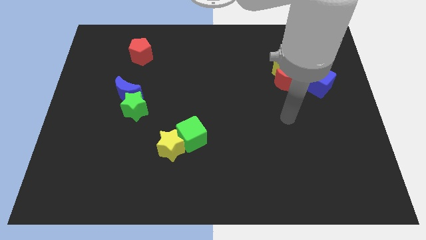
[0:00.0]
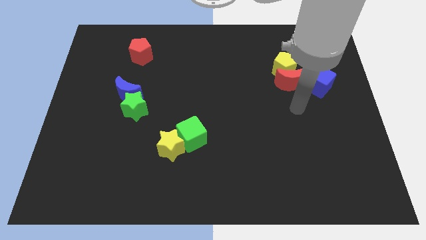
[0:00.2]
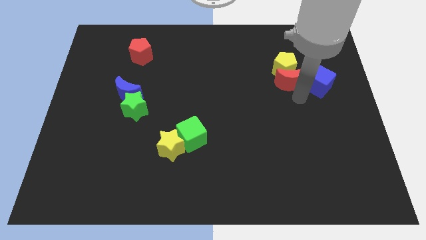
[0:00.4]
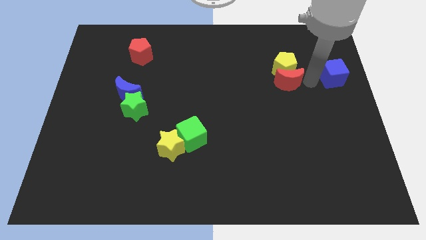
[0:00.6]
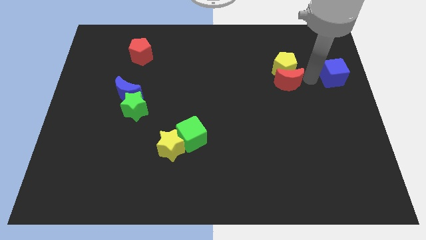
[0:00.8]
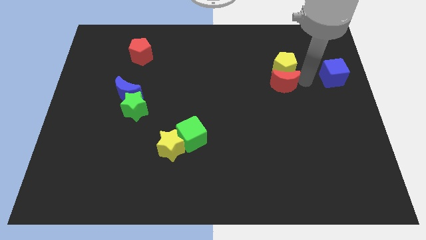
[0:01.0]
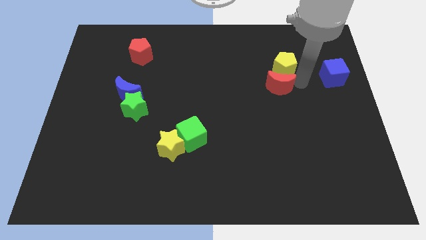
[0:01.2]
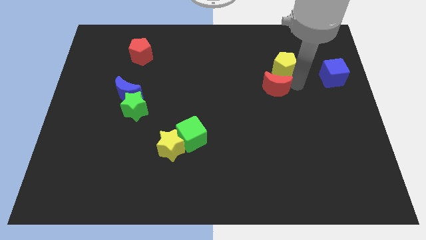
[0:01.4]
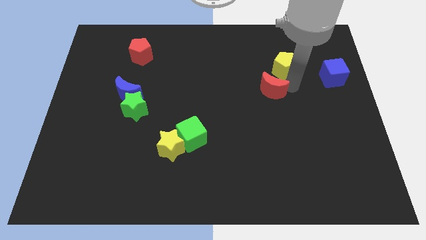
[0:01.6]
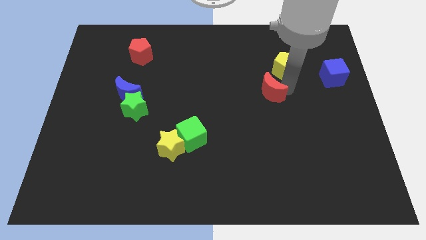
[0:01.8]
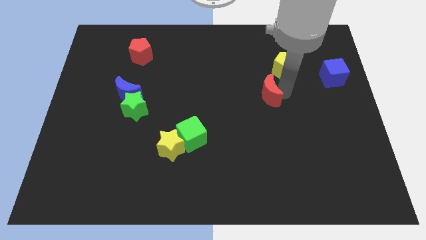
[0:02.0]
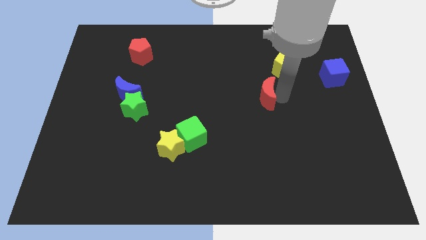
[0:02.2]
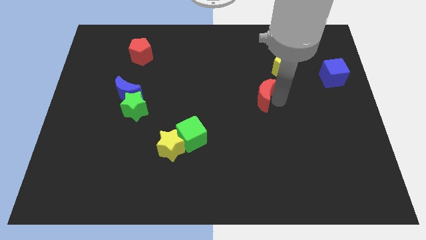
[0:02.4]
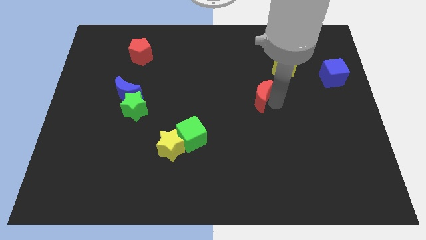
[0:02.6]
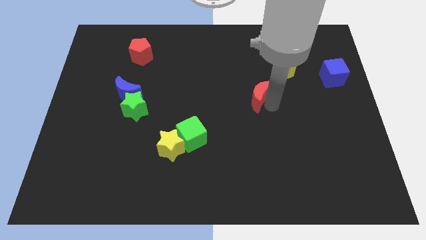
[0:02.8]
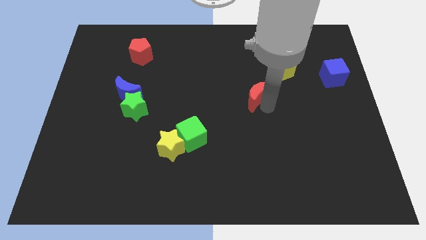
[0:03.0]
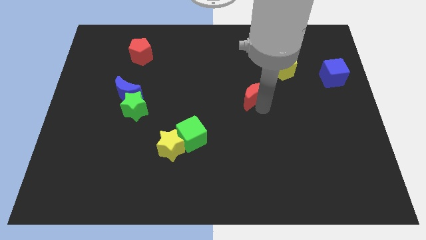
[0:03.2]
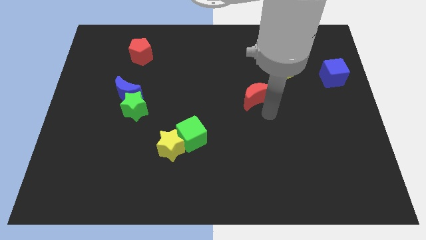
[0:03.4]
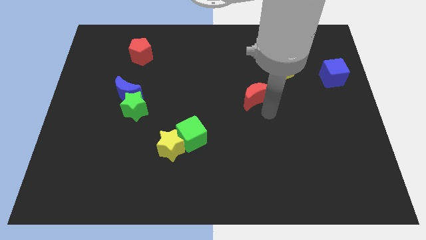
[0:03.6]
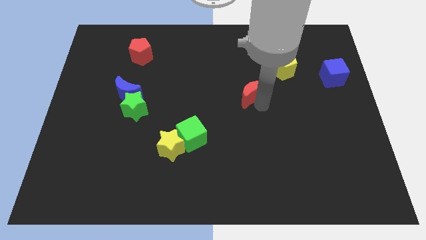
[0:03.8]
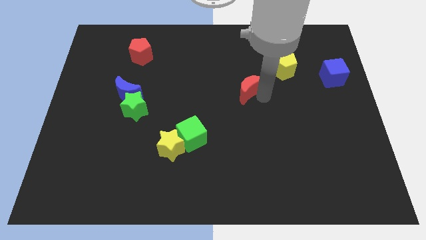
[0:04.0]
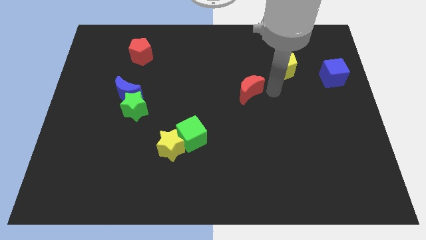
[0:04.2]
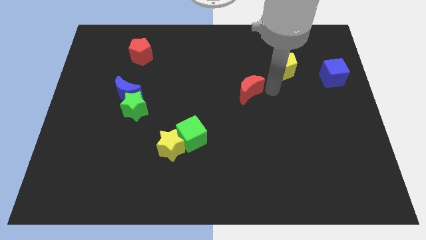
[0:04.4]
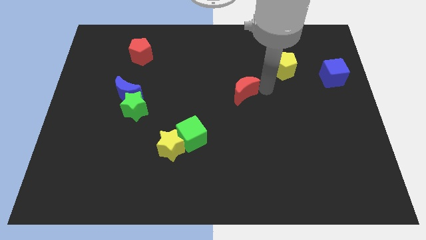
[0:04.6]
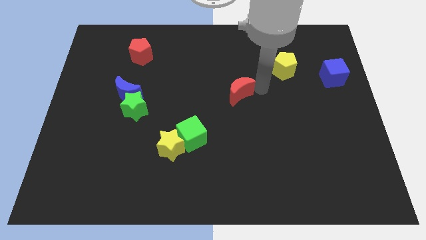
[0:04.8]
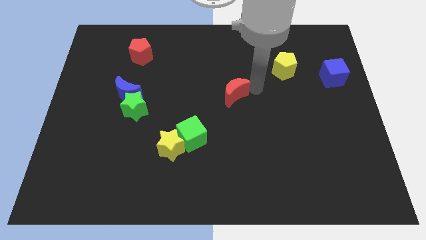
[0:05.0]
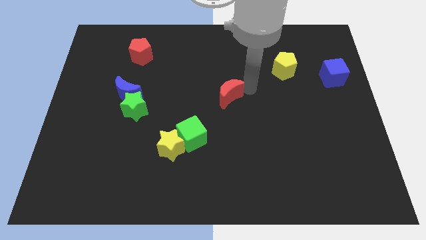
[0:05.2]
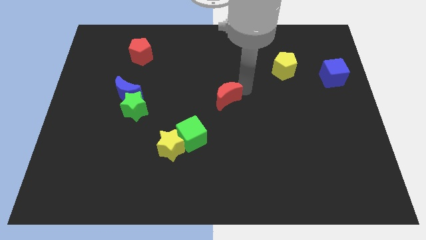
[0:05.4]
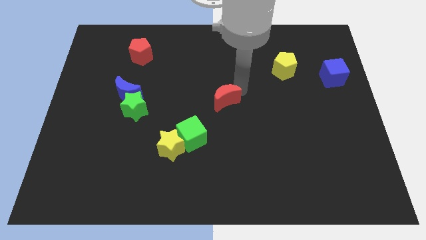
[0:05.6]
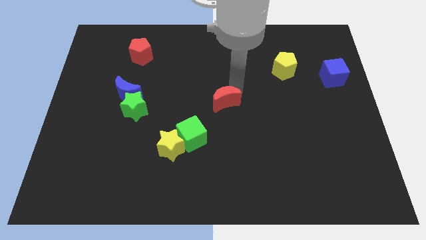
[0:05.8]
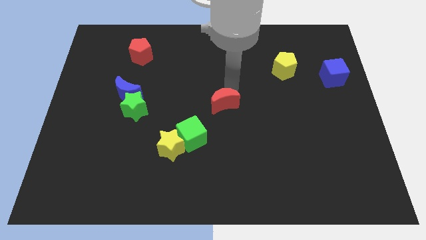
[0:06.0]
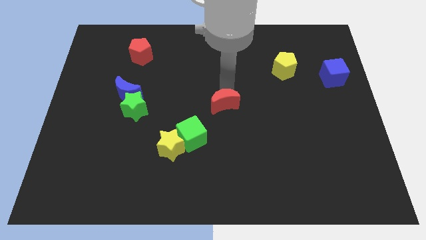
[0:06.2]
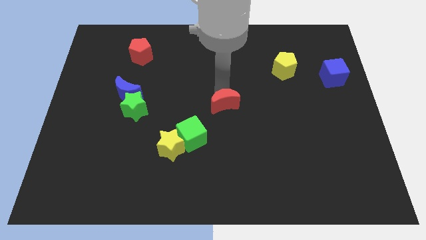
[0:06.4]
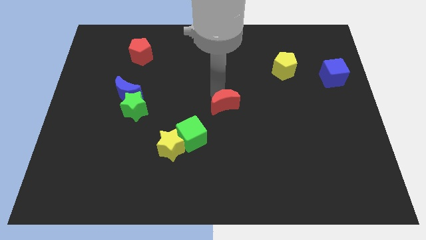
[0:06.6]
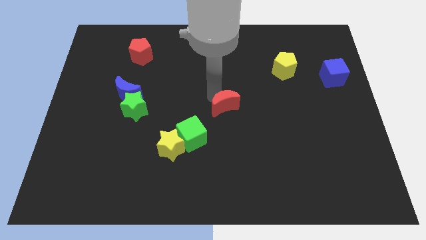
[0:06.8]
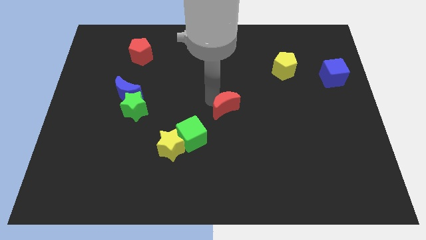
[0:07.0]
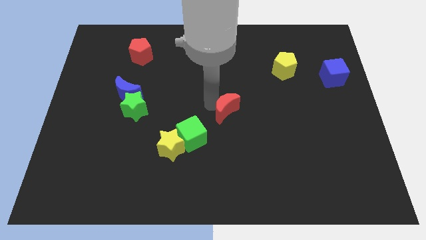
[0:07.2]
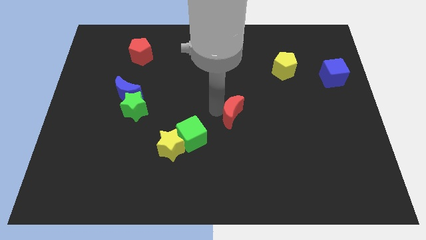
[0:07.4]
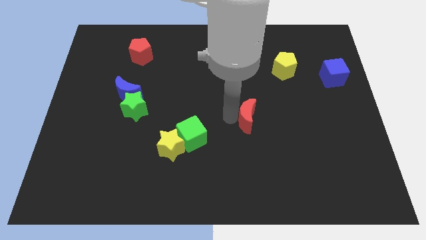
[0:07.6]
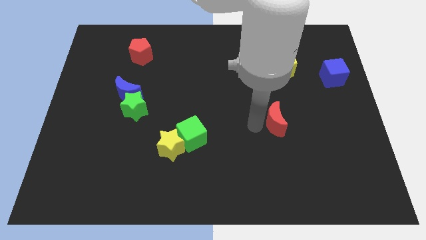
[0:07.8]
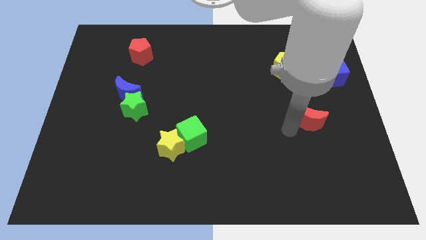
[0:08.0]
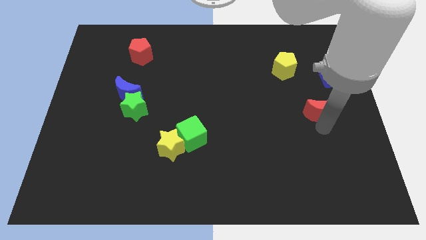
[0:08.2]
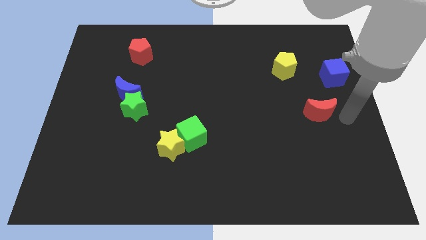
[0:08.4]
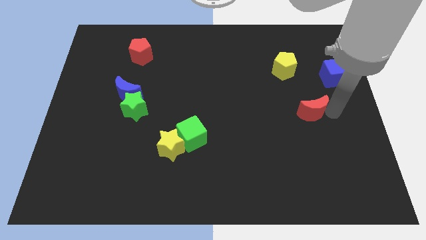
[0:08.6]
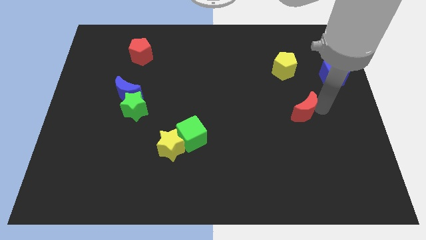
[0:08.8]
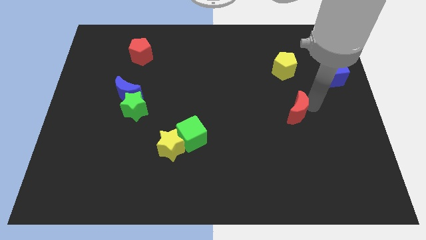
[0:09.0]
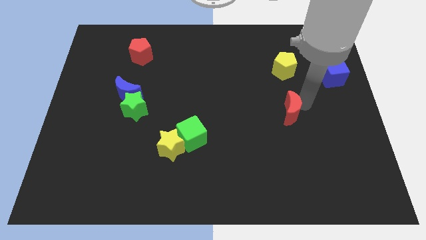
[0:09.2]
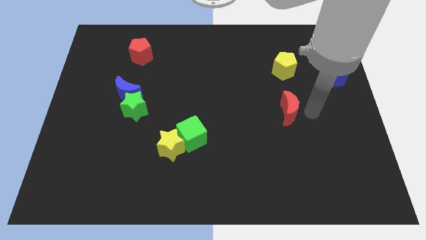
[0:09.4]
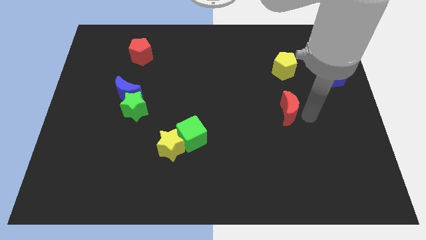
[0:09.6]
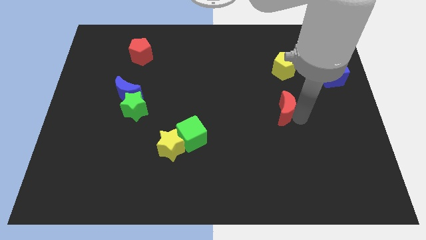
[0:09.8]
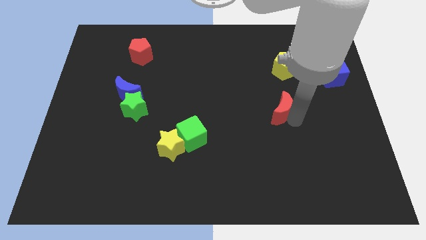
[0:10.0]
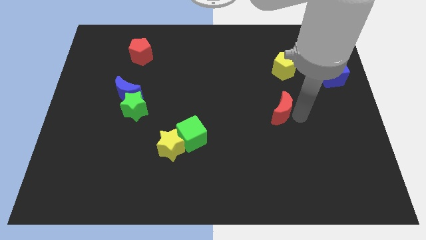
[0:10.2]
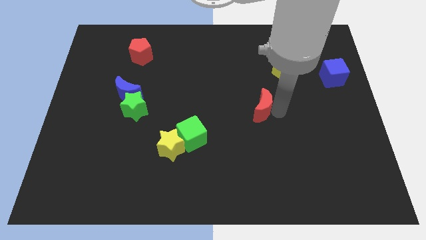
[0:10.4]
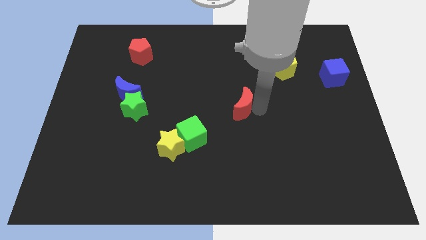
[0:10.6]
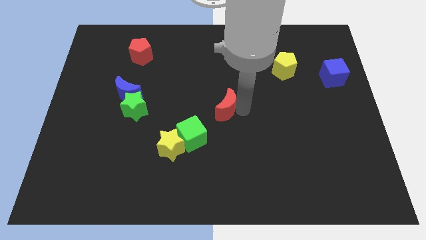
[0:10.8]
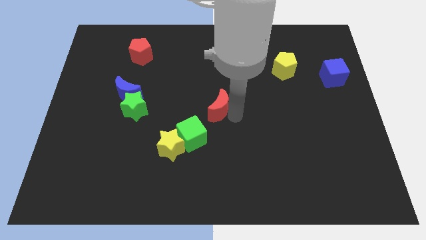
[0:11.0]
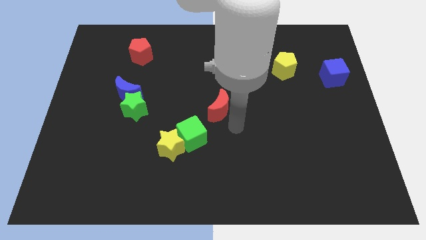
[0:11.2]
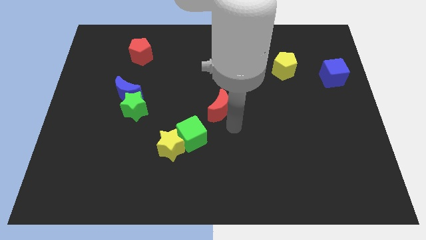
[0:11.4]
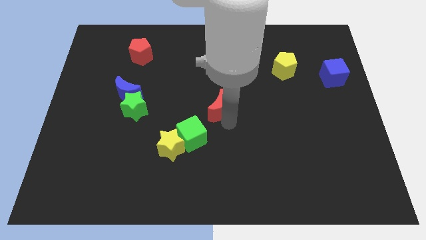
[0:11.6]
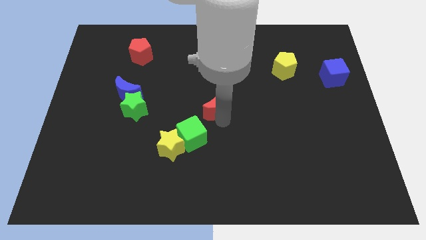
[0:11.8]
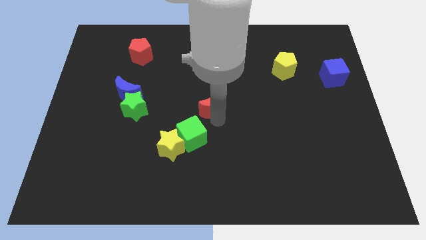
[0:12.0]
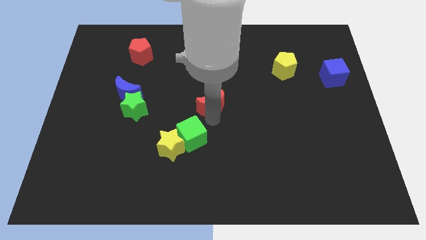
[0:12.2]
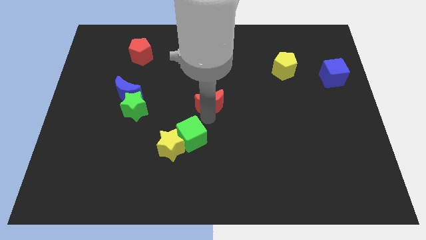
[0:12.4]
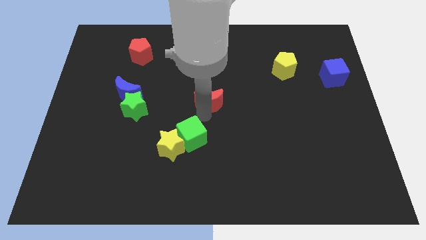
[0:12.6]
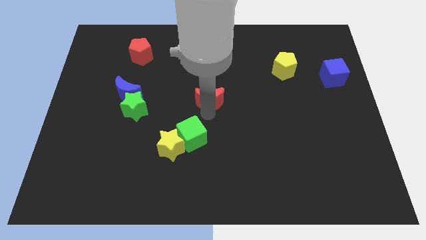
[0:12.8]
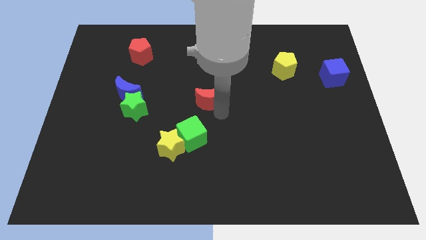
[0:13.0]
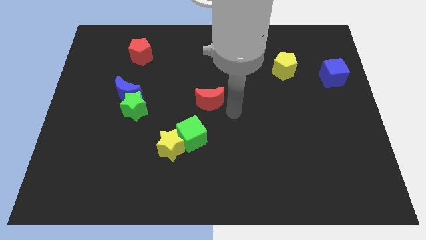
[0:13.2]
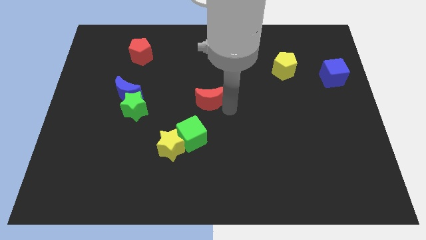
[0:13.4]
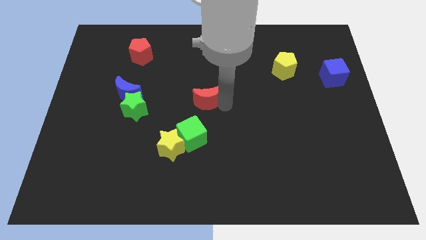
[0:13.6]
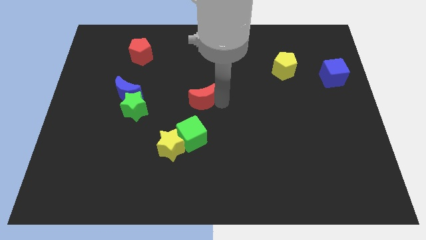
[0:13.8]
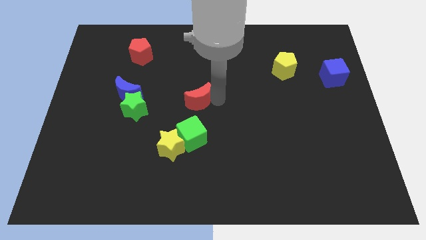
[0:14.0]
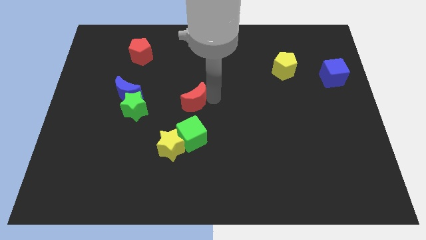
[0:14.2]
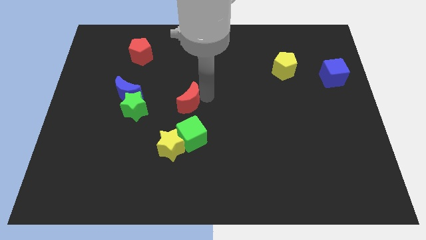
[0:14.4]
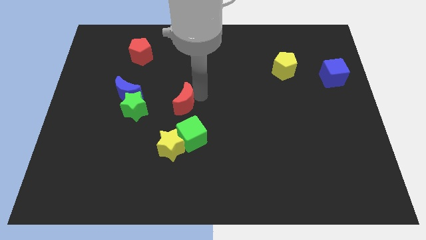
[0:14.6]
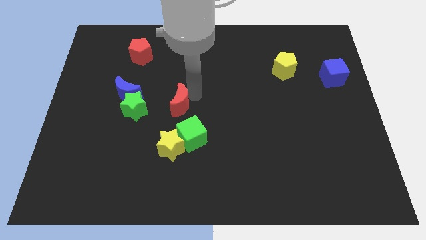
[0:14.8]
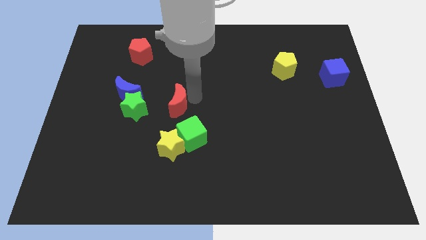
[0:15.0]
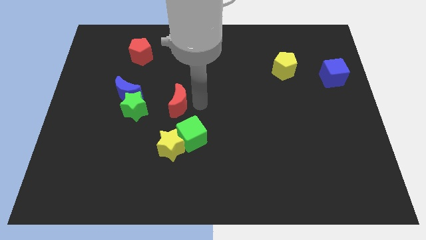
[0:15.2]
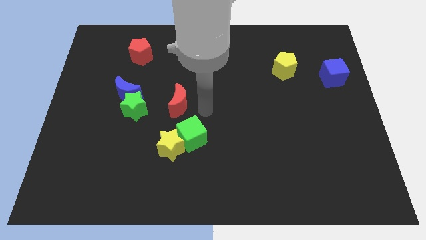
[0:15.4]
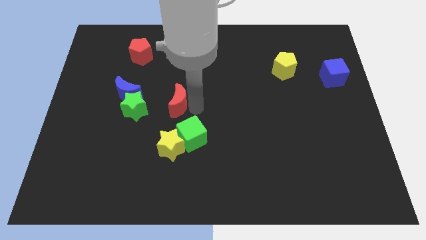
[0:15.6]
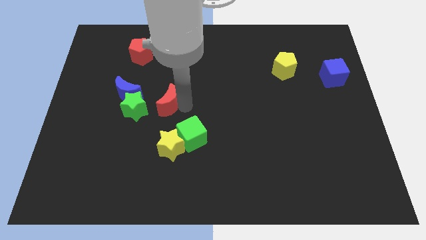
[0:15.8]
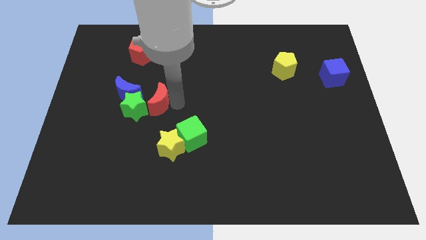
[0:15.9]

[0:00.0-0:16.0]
slide the red moon next to the green star
